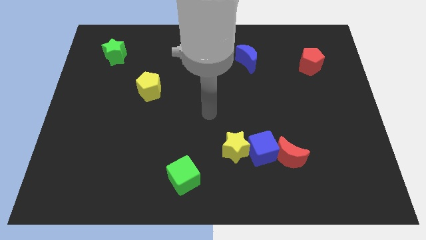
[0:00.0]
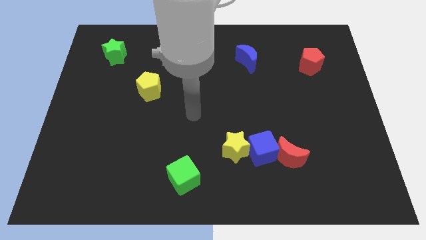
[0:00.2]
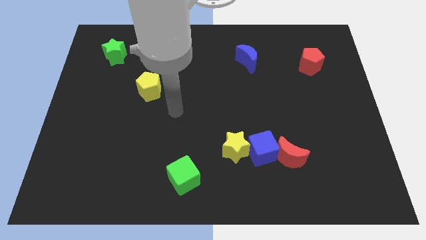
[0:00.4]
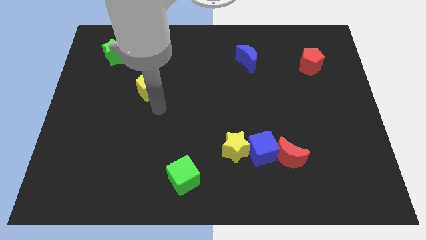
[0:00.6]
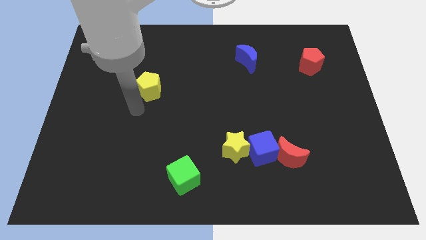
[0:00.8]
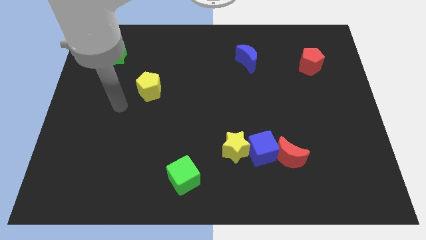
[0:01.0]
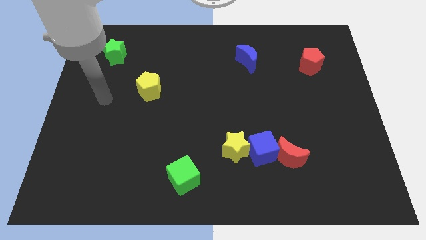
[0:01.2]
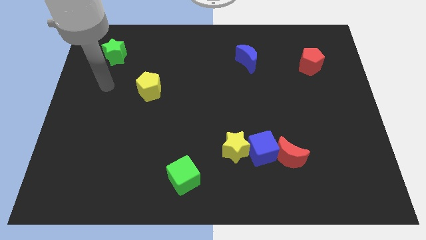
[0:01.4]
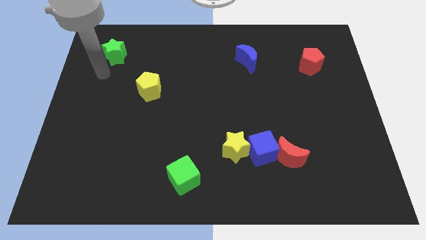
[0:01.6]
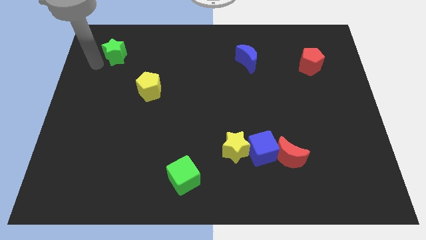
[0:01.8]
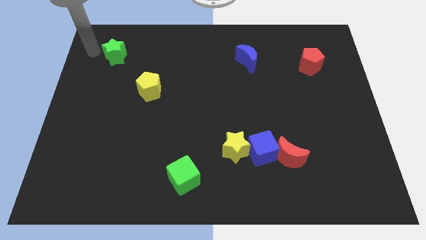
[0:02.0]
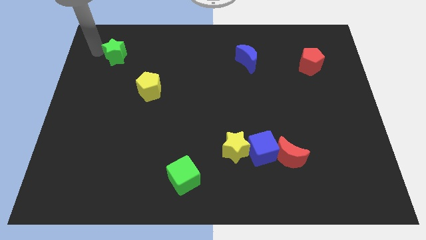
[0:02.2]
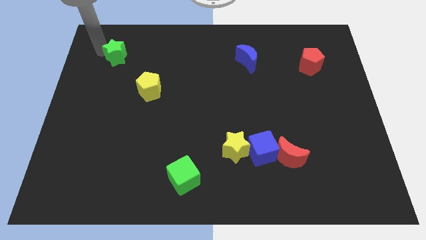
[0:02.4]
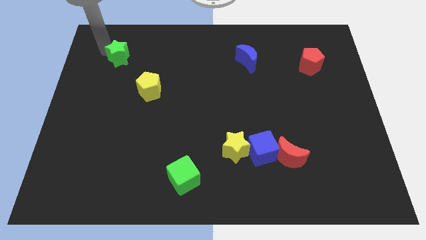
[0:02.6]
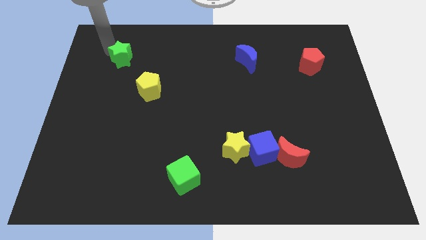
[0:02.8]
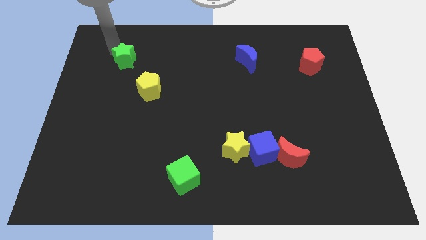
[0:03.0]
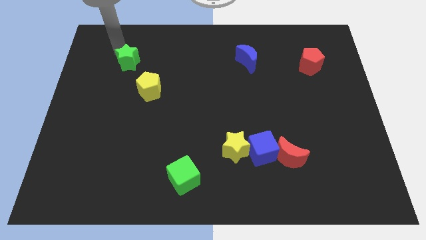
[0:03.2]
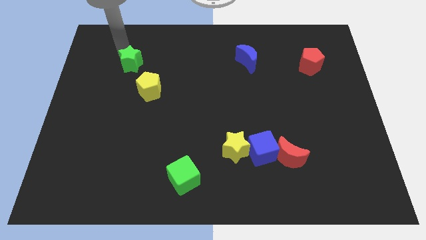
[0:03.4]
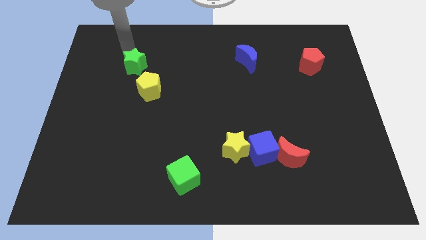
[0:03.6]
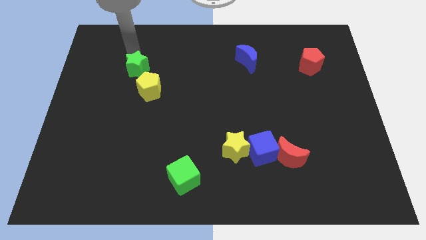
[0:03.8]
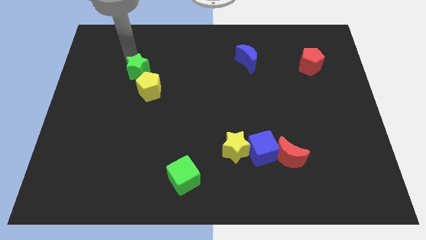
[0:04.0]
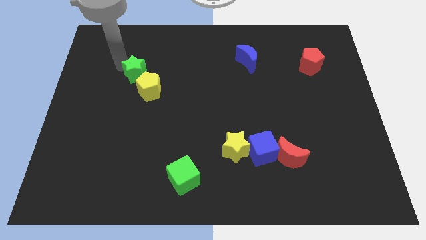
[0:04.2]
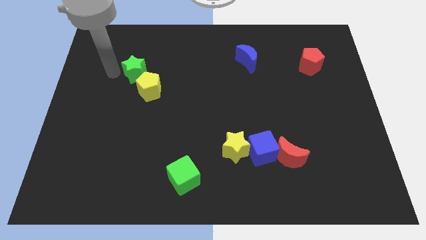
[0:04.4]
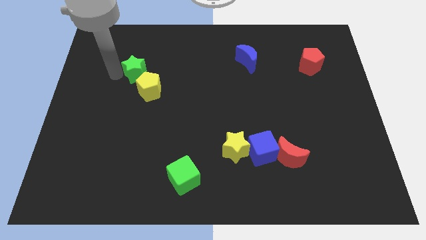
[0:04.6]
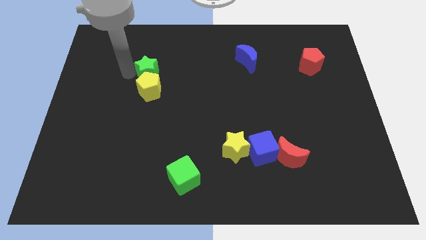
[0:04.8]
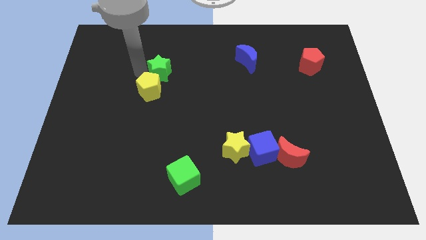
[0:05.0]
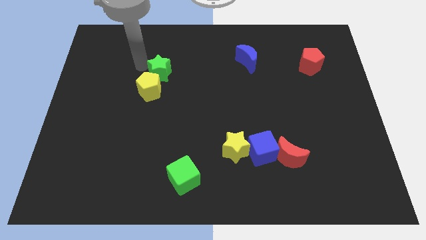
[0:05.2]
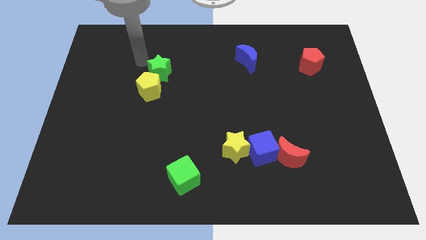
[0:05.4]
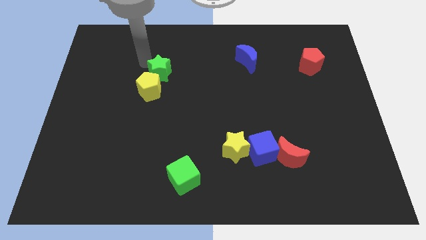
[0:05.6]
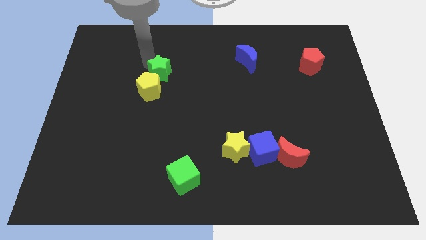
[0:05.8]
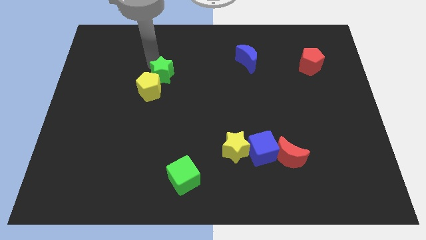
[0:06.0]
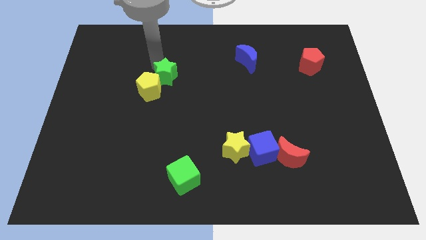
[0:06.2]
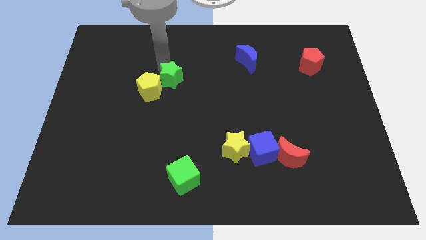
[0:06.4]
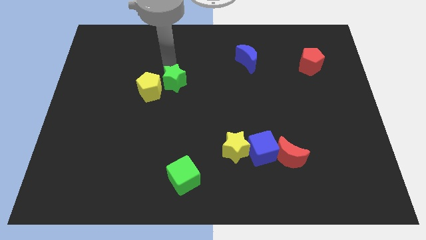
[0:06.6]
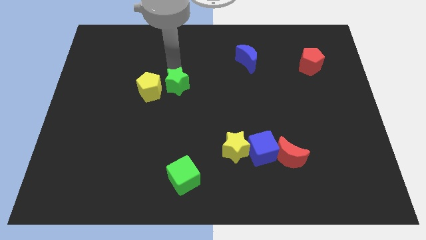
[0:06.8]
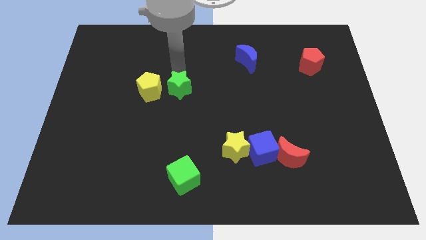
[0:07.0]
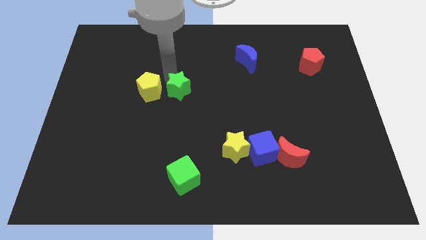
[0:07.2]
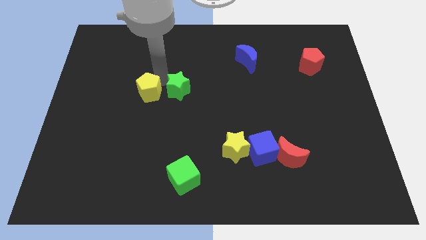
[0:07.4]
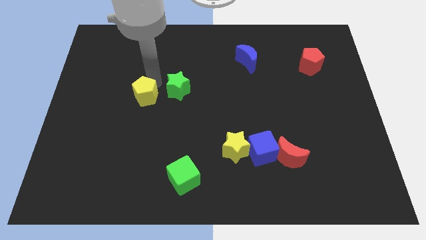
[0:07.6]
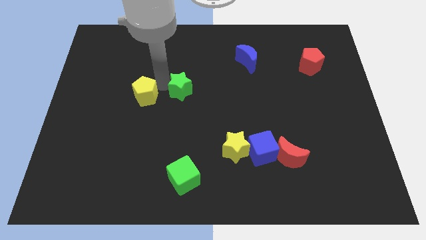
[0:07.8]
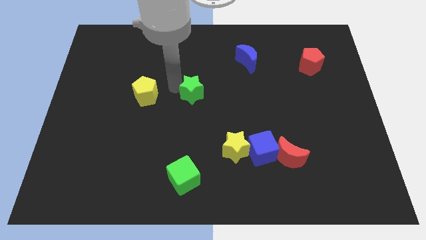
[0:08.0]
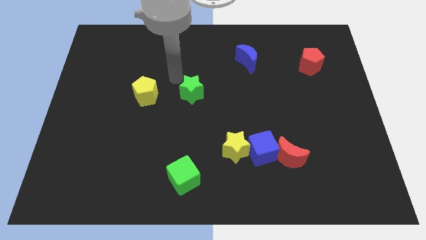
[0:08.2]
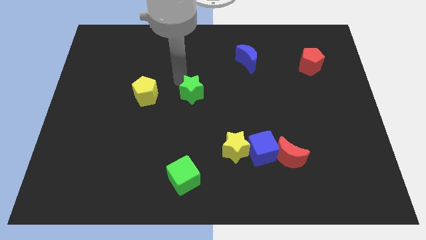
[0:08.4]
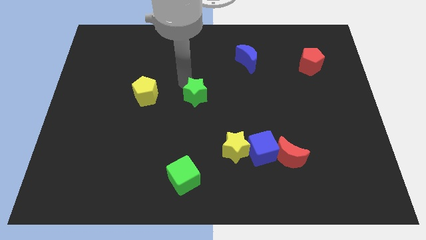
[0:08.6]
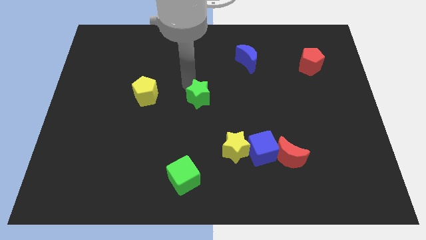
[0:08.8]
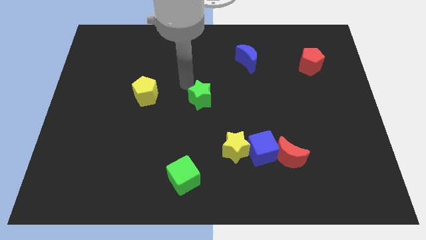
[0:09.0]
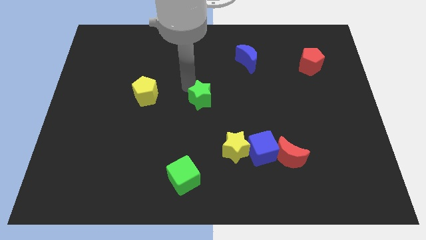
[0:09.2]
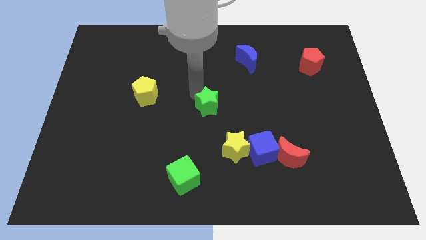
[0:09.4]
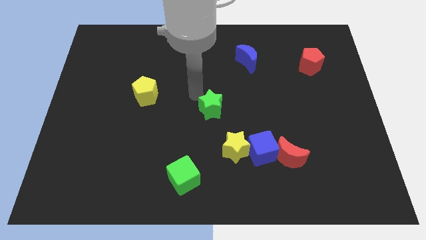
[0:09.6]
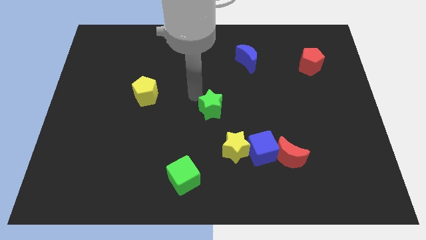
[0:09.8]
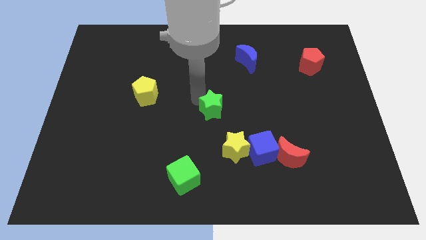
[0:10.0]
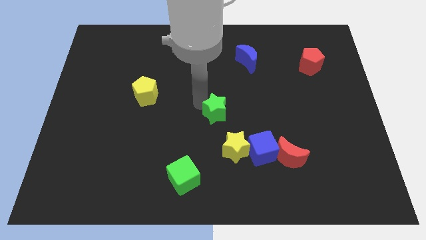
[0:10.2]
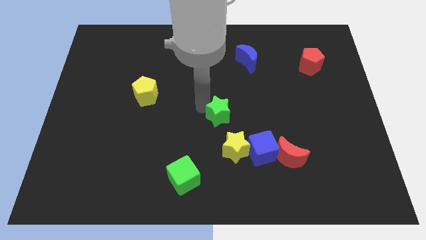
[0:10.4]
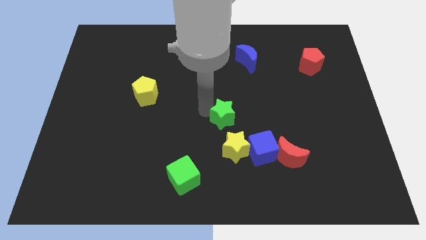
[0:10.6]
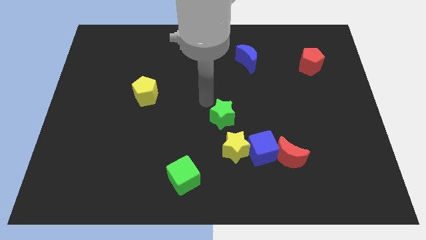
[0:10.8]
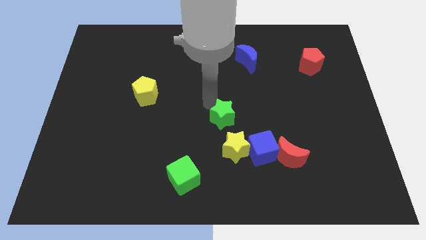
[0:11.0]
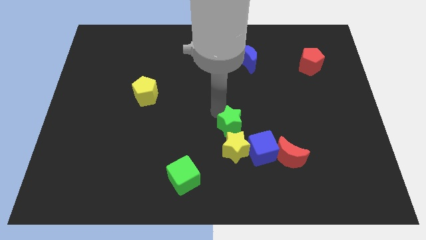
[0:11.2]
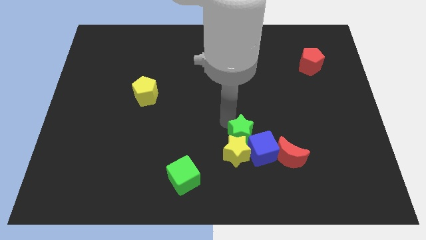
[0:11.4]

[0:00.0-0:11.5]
push the green star towards the blue cube

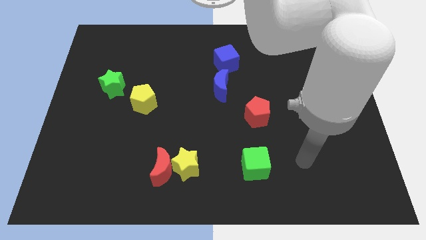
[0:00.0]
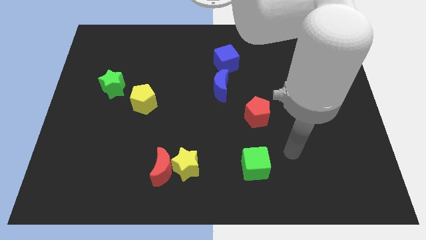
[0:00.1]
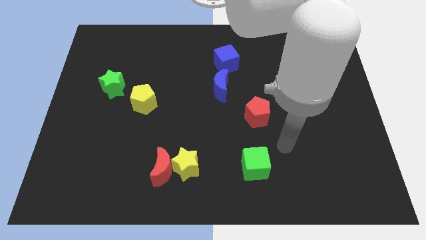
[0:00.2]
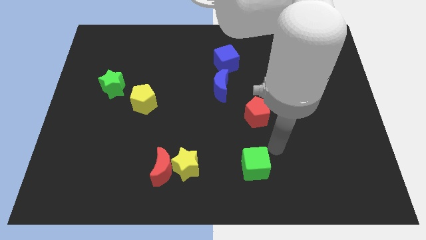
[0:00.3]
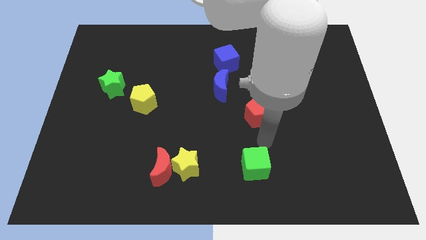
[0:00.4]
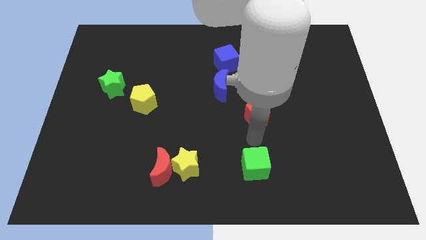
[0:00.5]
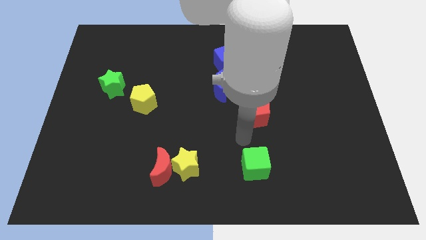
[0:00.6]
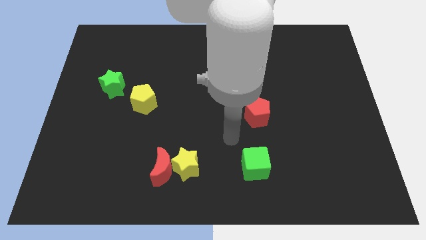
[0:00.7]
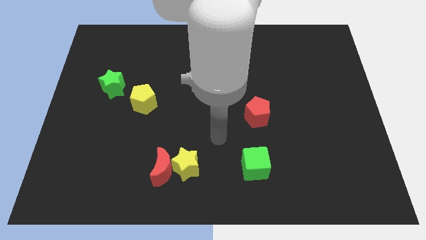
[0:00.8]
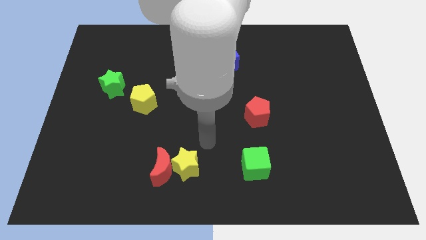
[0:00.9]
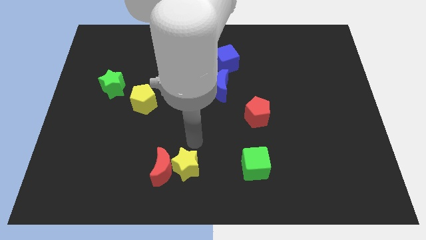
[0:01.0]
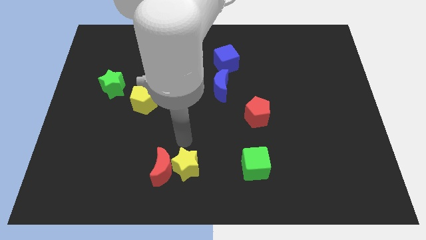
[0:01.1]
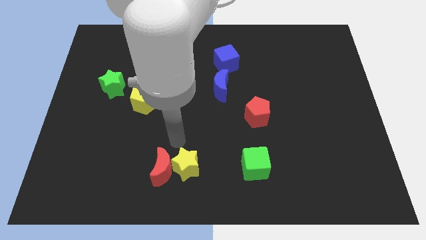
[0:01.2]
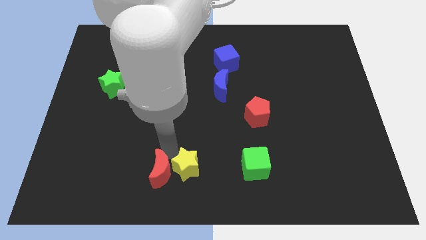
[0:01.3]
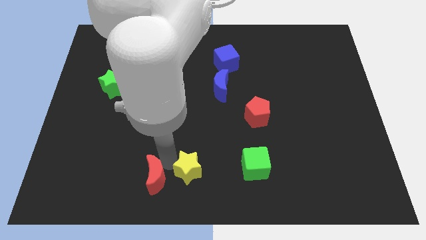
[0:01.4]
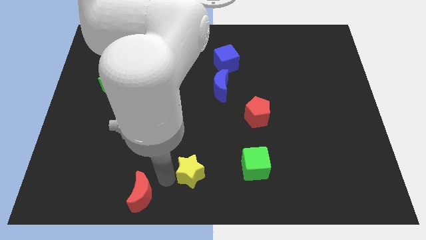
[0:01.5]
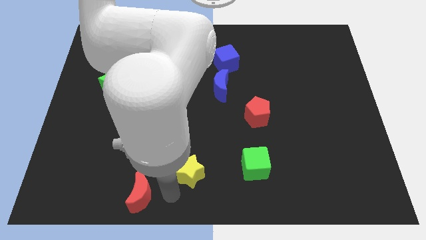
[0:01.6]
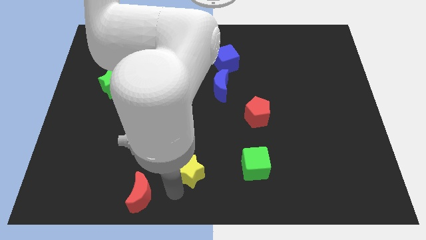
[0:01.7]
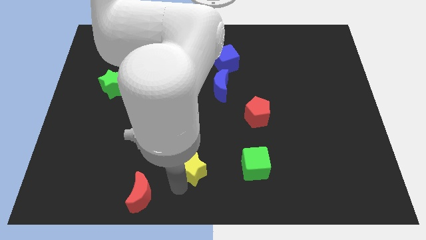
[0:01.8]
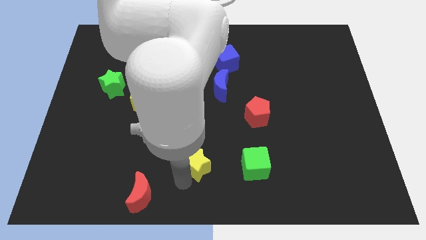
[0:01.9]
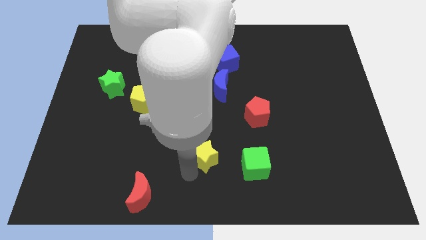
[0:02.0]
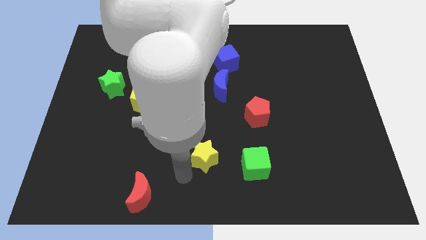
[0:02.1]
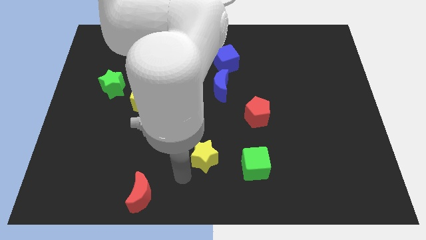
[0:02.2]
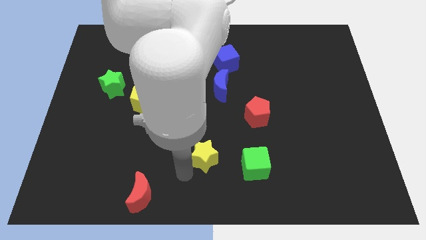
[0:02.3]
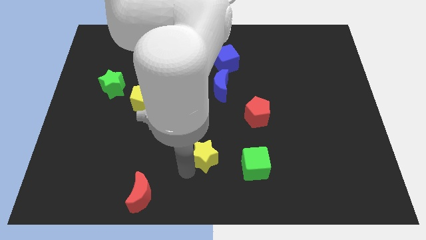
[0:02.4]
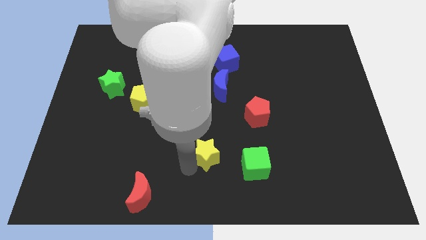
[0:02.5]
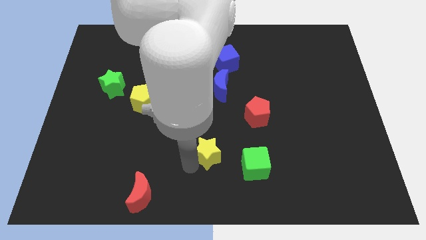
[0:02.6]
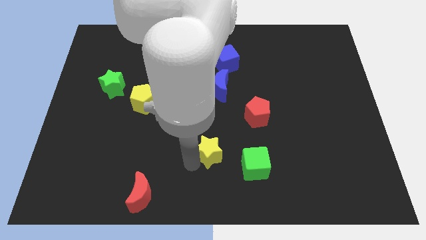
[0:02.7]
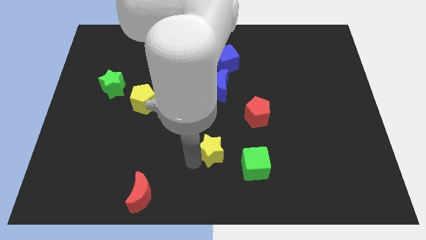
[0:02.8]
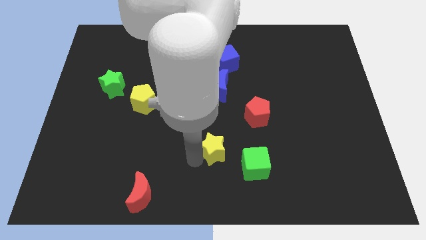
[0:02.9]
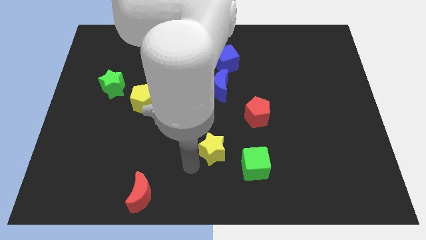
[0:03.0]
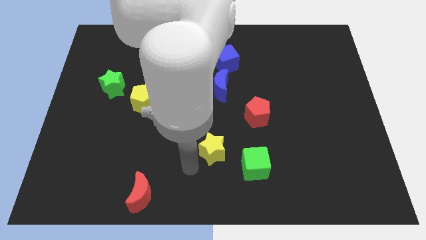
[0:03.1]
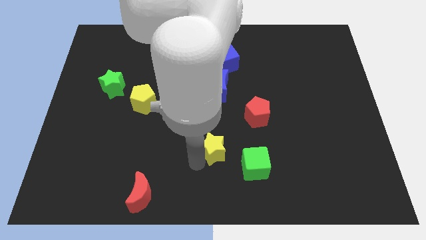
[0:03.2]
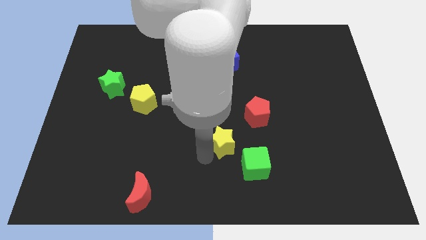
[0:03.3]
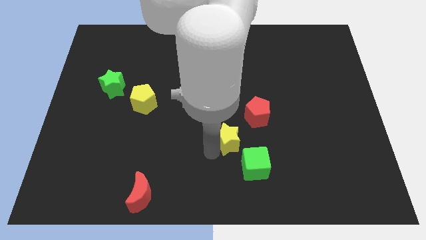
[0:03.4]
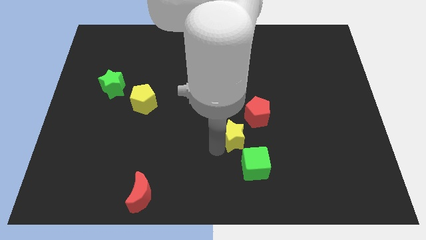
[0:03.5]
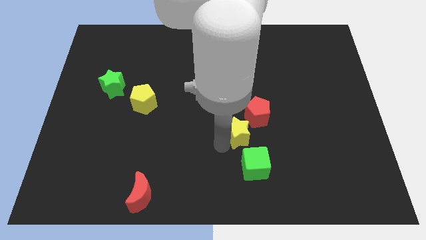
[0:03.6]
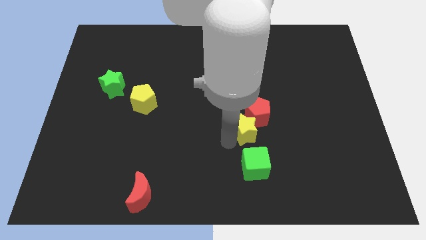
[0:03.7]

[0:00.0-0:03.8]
put the yellow star close to the red pentagon
